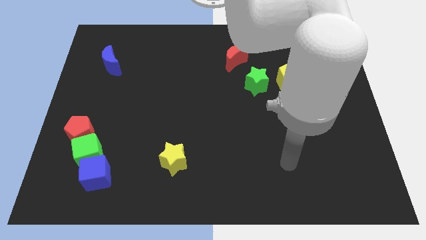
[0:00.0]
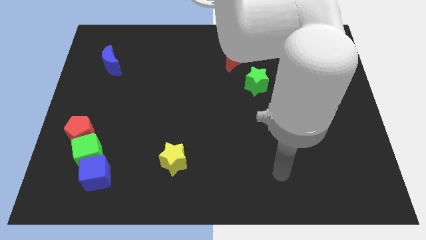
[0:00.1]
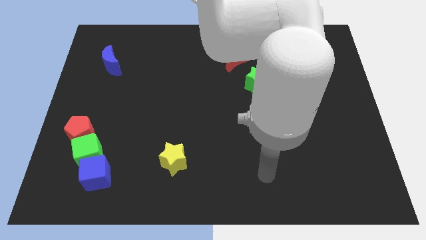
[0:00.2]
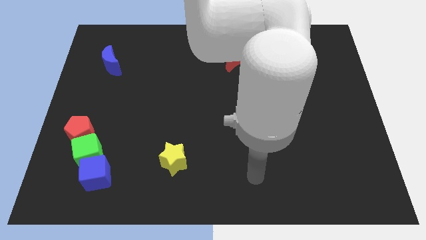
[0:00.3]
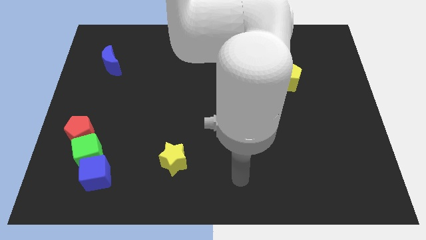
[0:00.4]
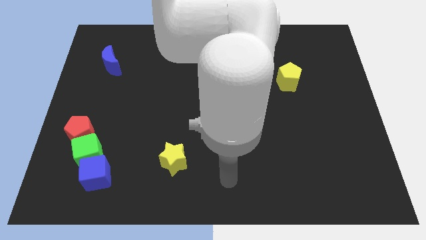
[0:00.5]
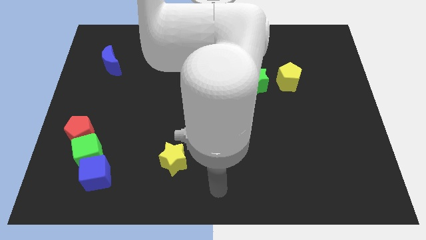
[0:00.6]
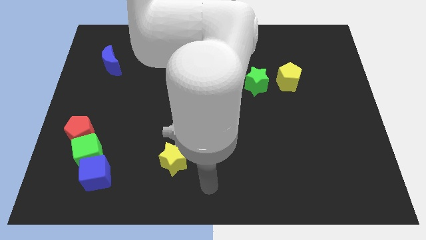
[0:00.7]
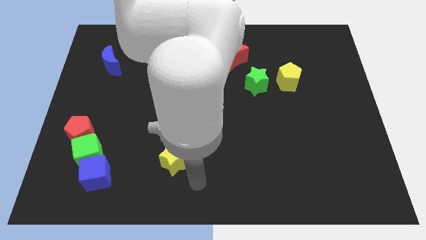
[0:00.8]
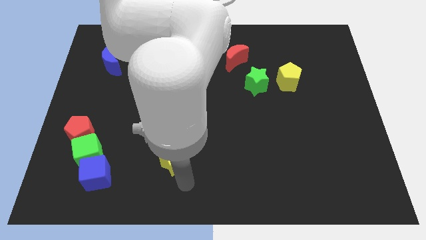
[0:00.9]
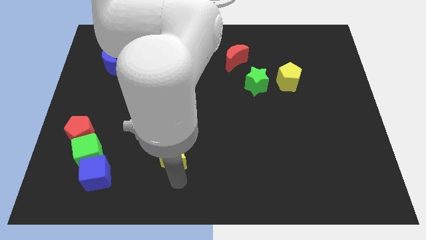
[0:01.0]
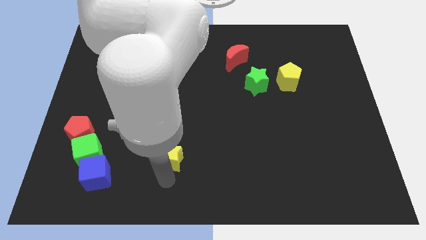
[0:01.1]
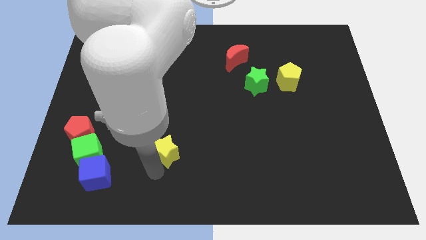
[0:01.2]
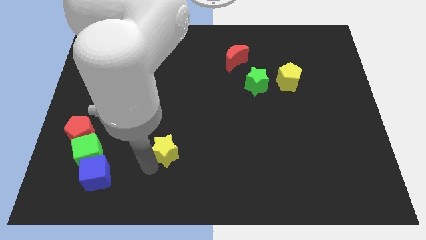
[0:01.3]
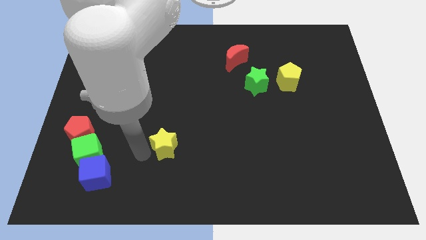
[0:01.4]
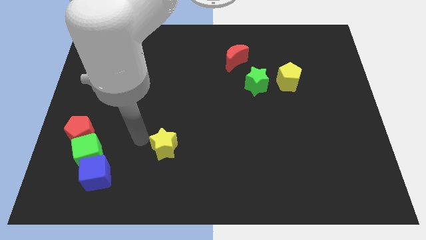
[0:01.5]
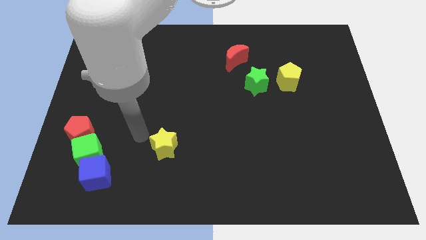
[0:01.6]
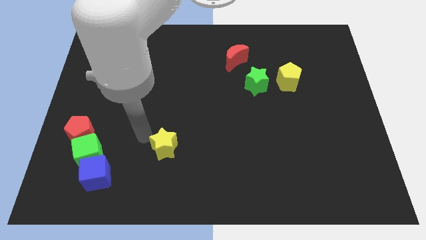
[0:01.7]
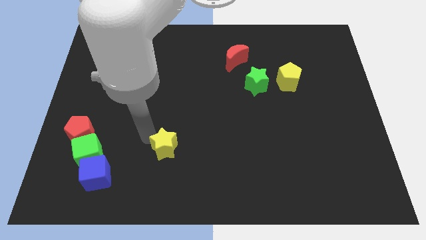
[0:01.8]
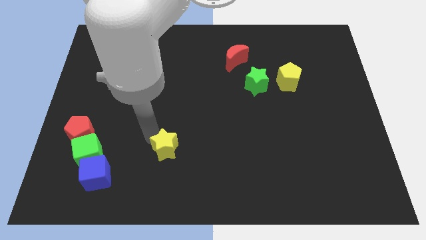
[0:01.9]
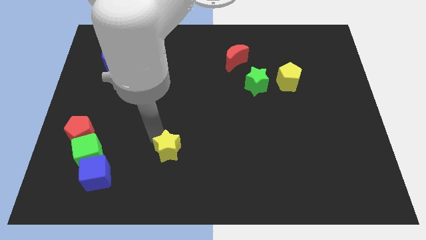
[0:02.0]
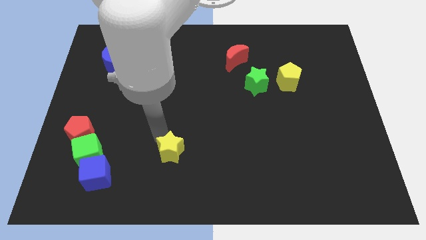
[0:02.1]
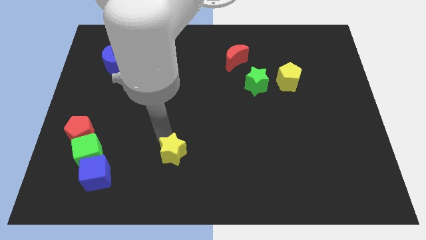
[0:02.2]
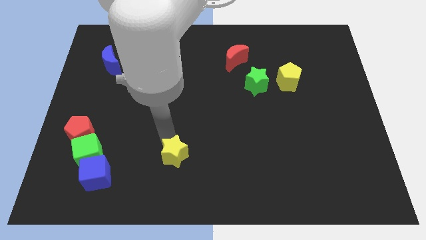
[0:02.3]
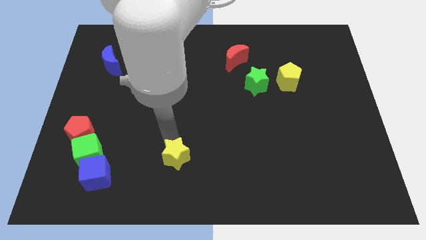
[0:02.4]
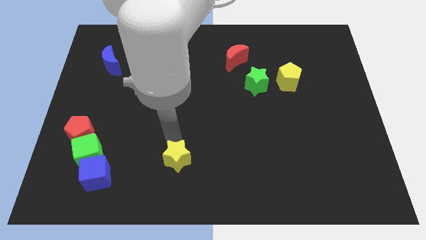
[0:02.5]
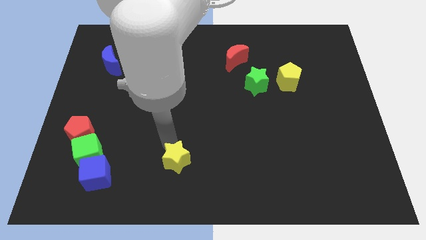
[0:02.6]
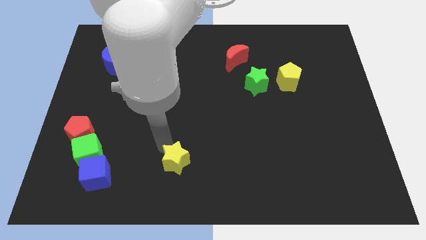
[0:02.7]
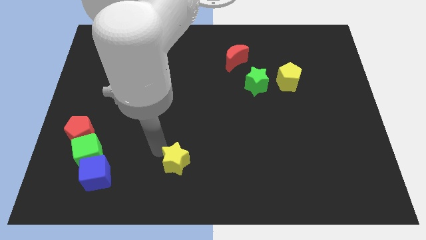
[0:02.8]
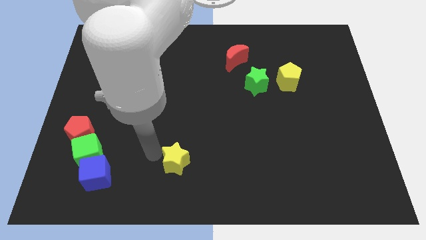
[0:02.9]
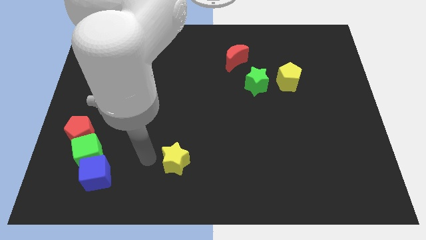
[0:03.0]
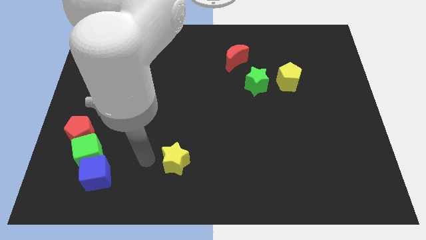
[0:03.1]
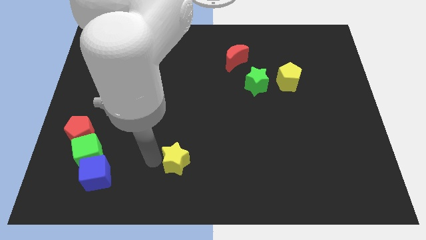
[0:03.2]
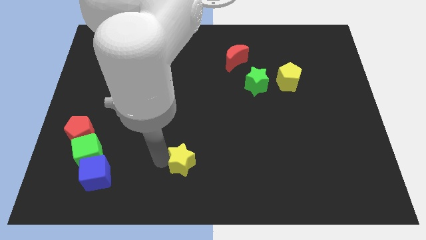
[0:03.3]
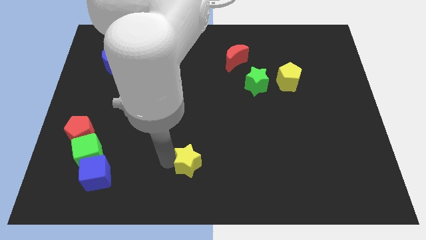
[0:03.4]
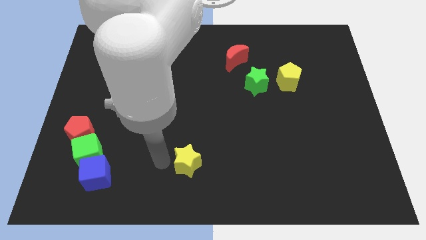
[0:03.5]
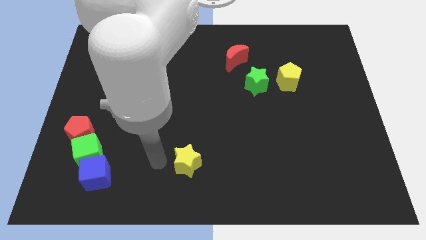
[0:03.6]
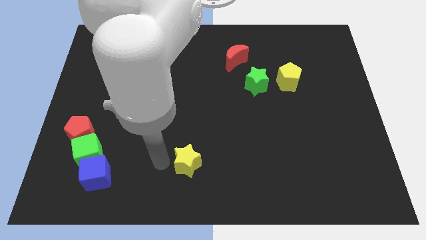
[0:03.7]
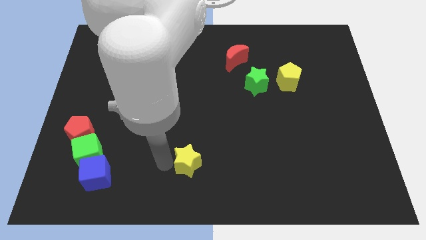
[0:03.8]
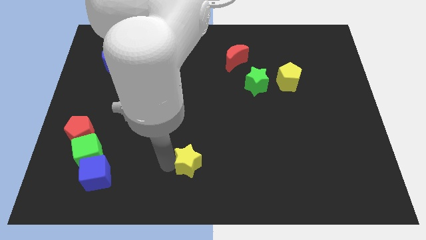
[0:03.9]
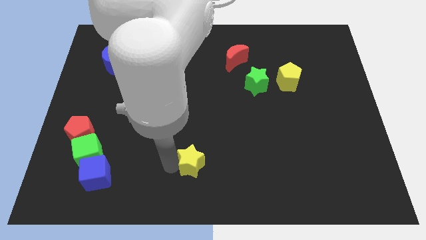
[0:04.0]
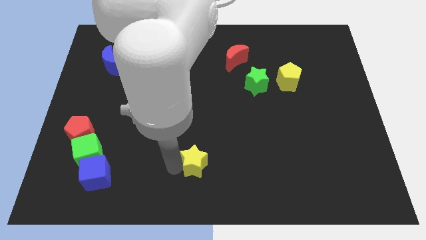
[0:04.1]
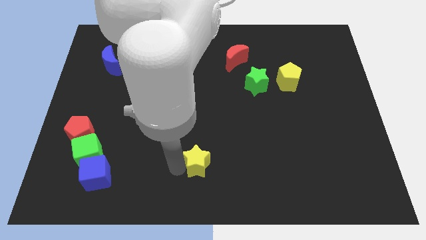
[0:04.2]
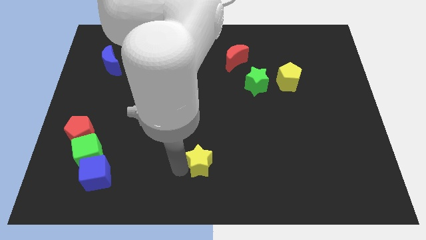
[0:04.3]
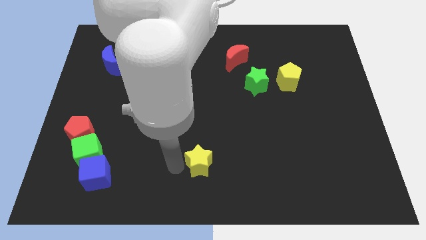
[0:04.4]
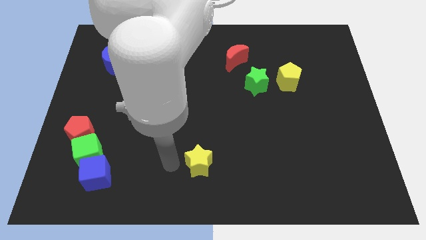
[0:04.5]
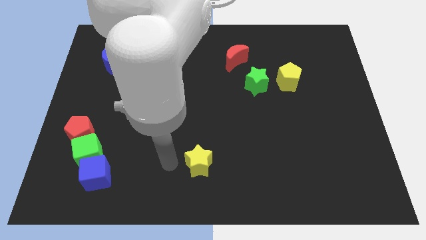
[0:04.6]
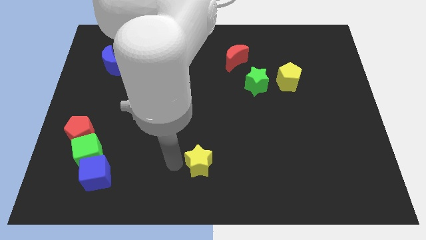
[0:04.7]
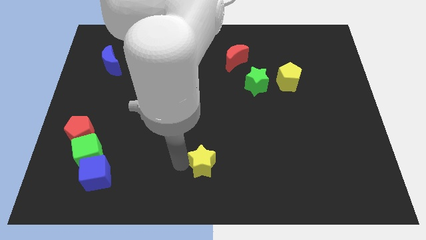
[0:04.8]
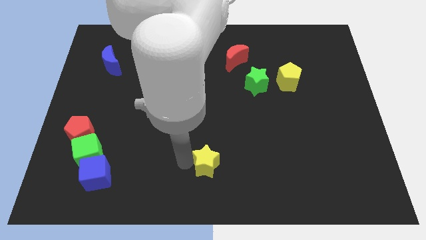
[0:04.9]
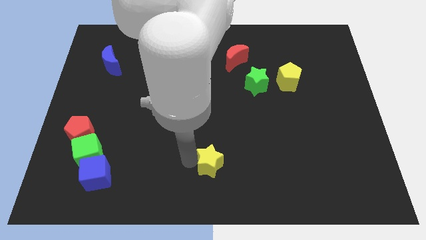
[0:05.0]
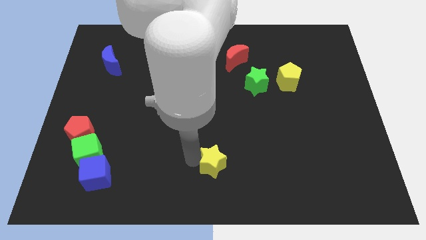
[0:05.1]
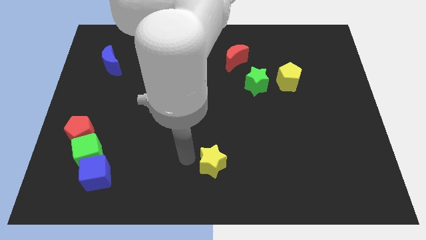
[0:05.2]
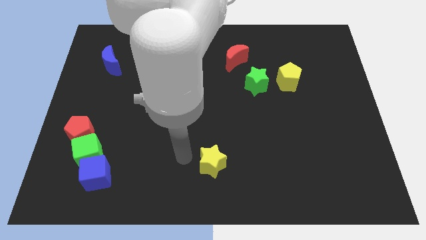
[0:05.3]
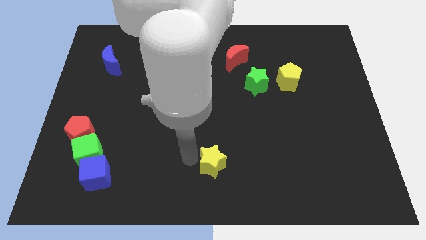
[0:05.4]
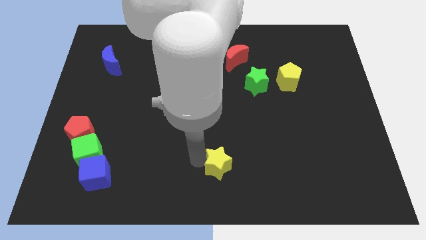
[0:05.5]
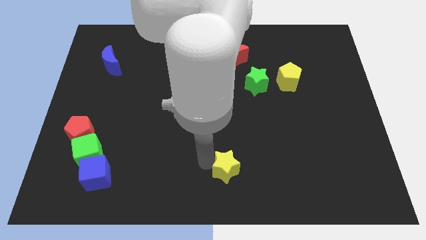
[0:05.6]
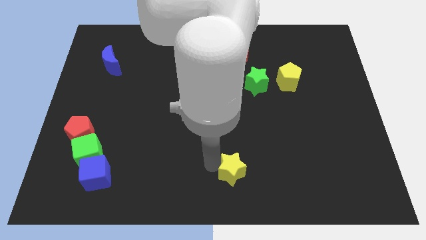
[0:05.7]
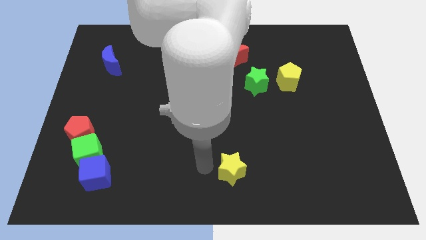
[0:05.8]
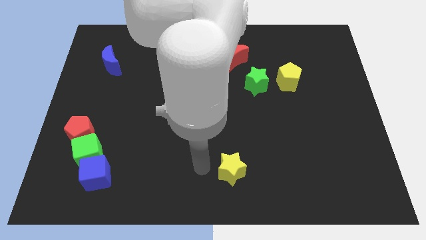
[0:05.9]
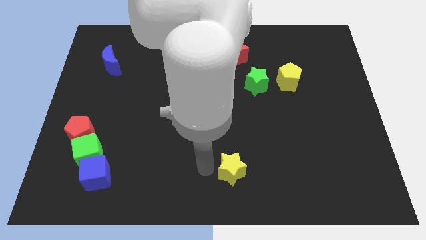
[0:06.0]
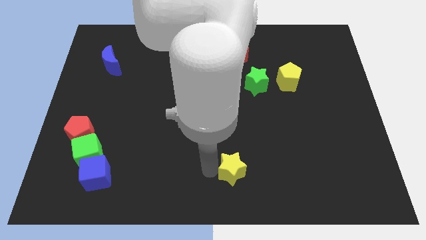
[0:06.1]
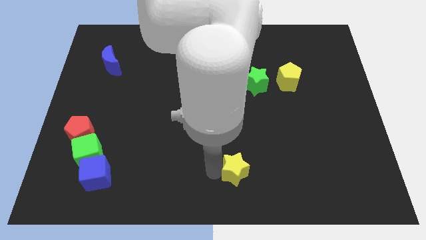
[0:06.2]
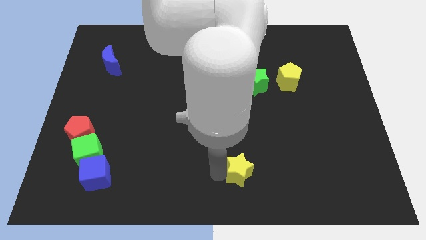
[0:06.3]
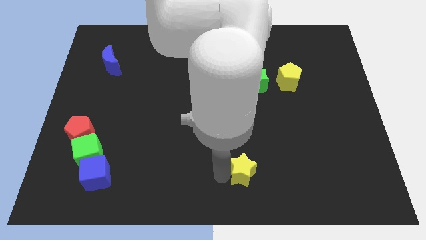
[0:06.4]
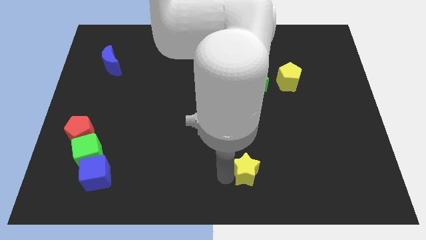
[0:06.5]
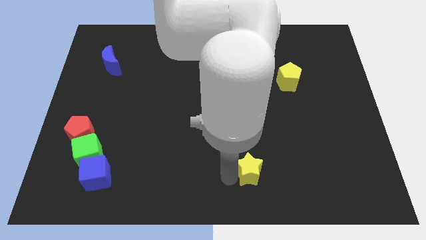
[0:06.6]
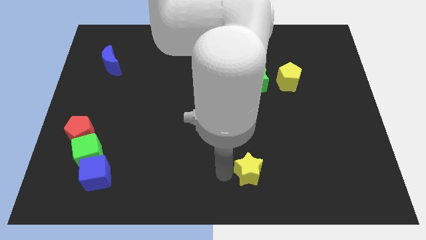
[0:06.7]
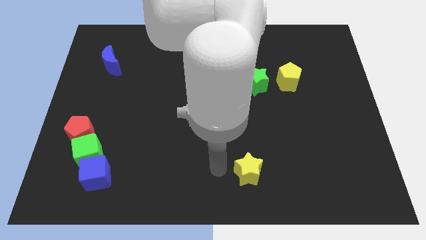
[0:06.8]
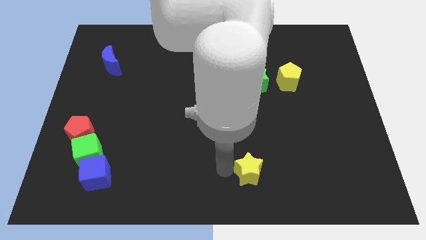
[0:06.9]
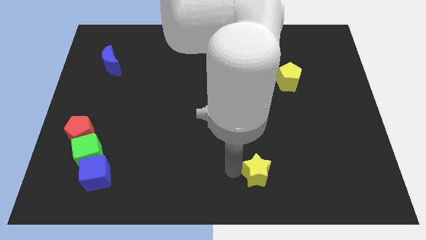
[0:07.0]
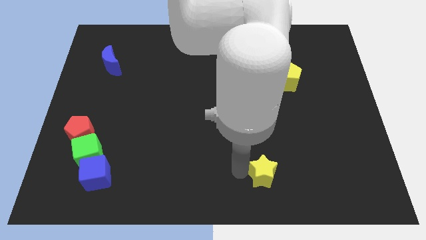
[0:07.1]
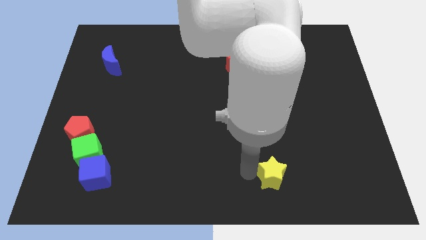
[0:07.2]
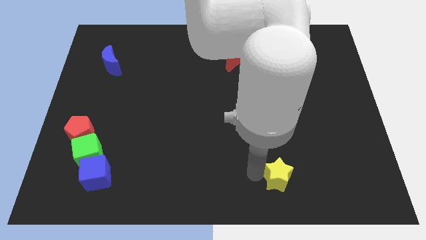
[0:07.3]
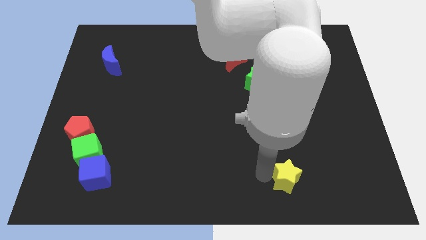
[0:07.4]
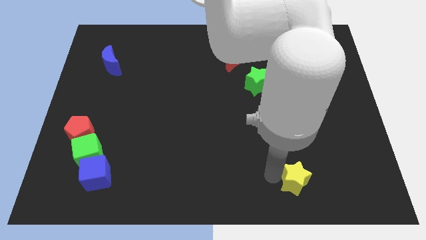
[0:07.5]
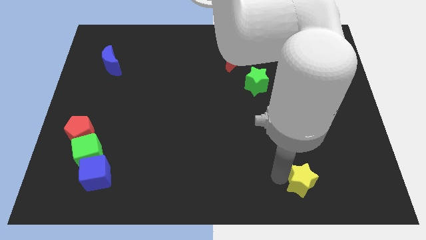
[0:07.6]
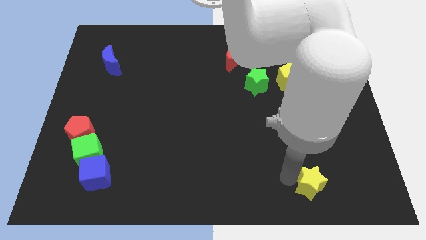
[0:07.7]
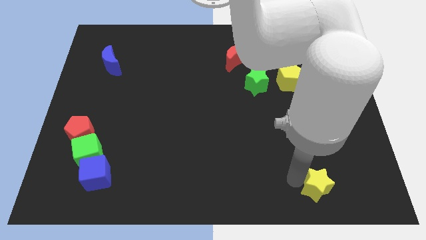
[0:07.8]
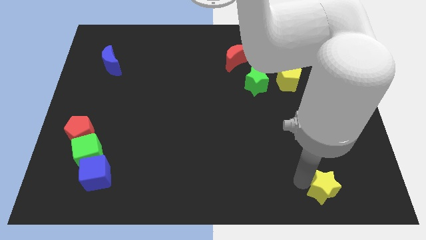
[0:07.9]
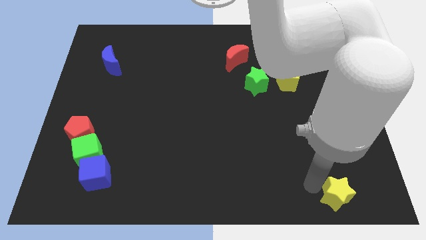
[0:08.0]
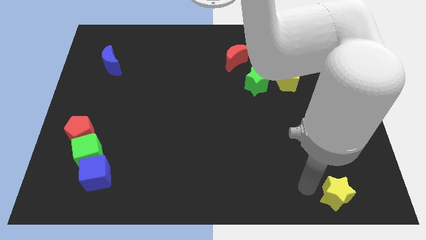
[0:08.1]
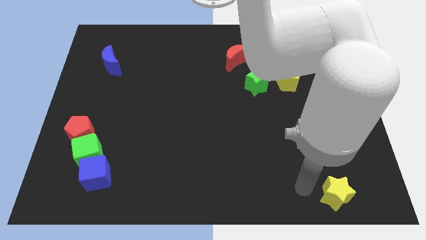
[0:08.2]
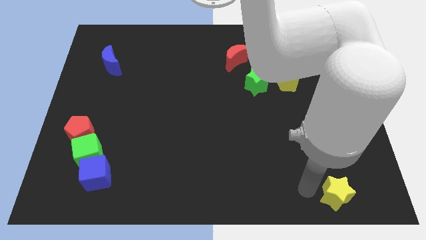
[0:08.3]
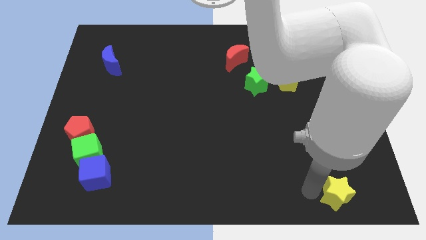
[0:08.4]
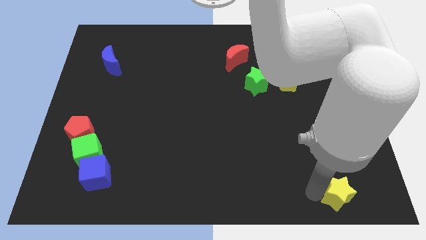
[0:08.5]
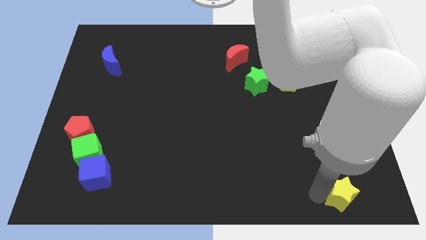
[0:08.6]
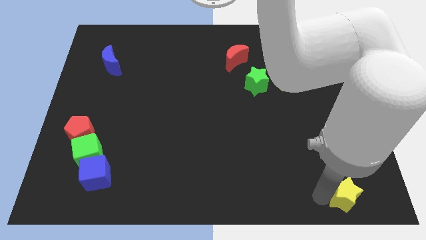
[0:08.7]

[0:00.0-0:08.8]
slide the yellow star to the bottom right
